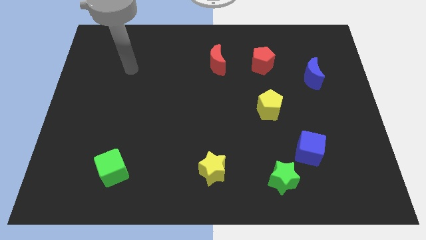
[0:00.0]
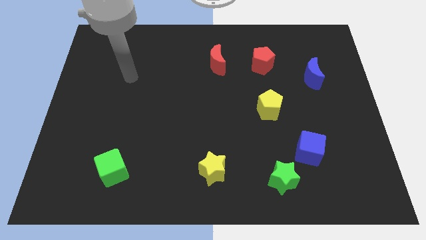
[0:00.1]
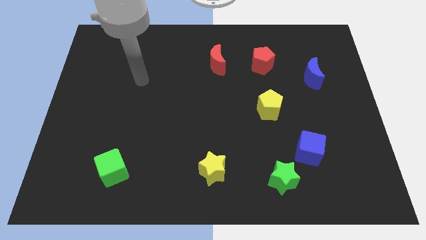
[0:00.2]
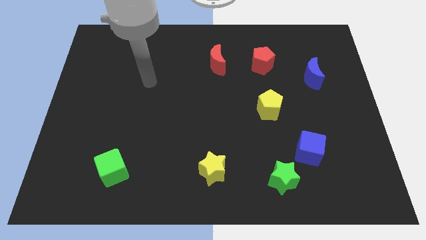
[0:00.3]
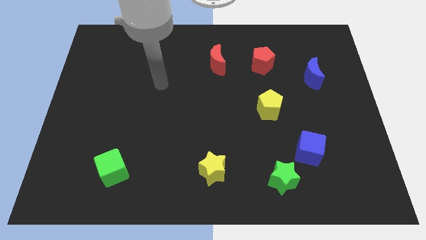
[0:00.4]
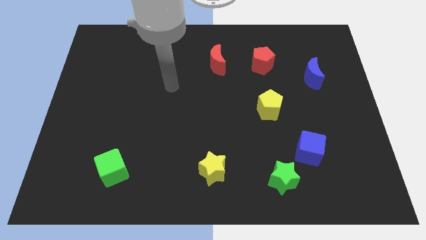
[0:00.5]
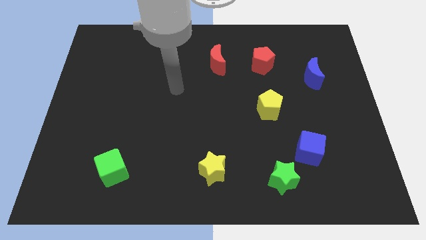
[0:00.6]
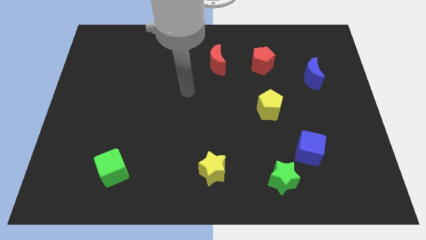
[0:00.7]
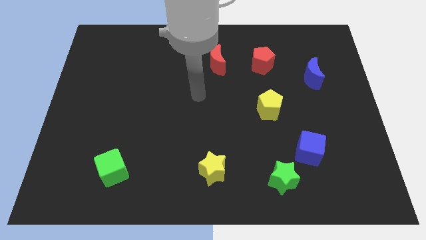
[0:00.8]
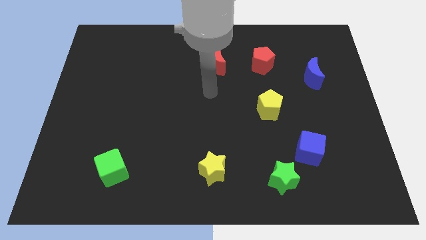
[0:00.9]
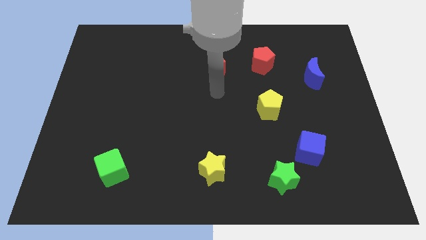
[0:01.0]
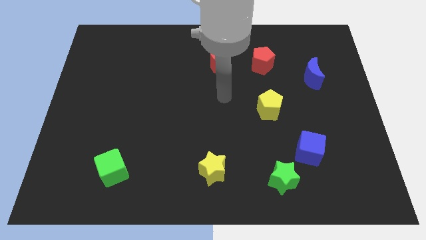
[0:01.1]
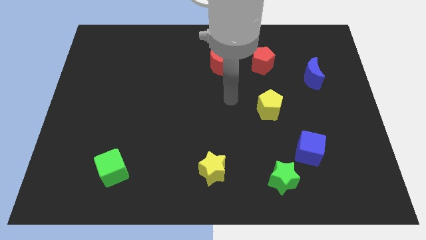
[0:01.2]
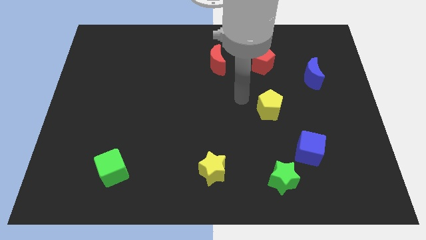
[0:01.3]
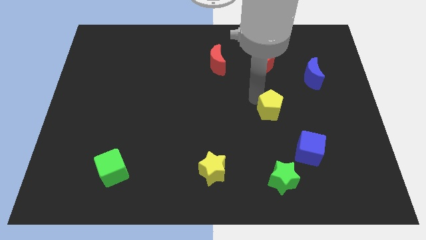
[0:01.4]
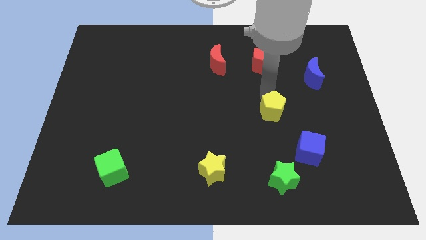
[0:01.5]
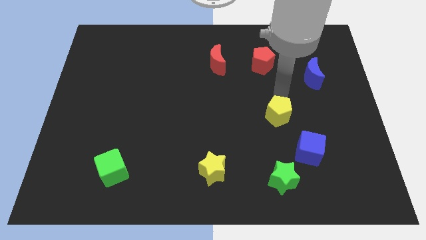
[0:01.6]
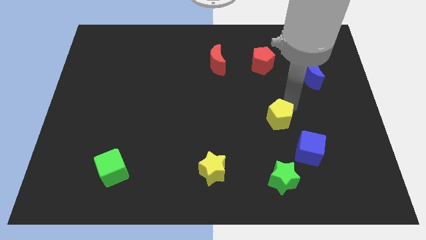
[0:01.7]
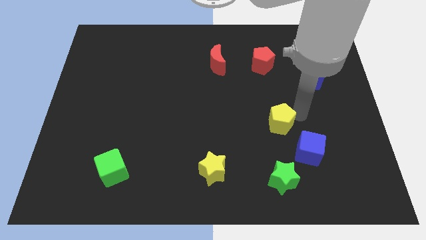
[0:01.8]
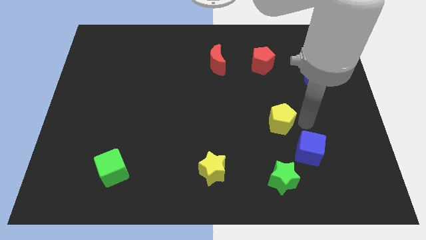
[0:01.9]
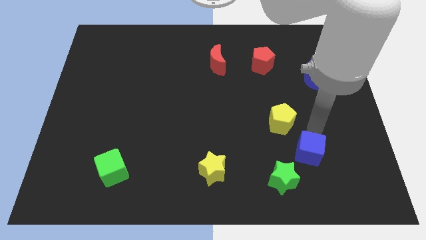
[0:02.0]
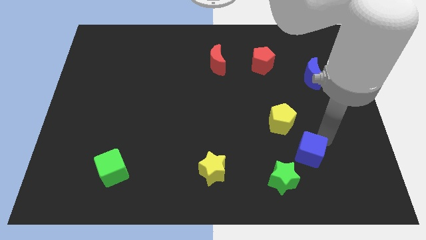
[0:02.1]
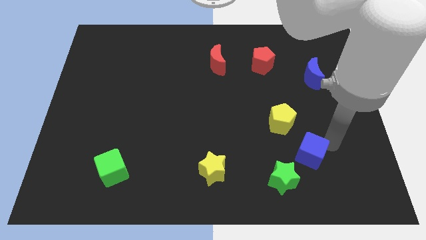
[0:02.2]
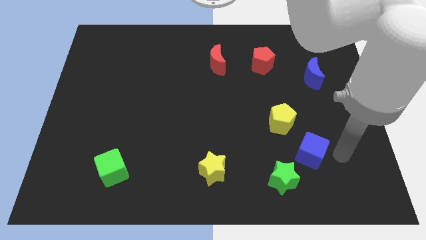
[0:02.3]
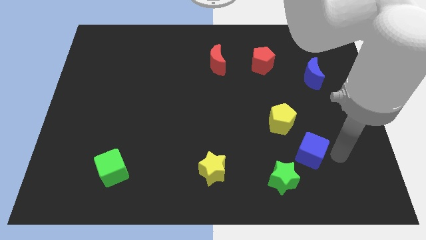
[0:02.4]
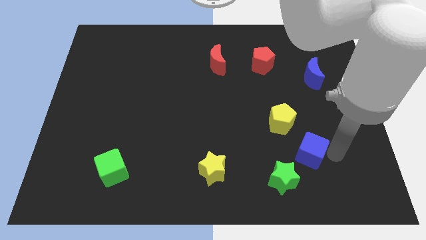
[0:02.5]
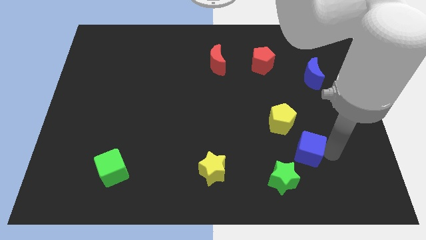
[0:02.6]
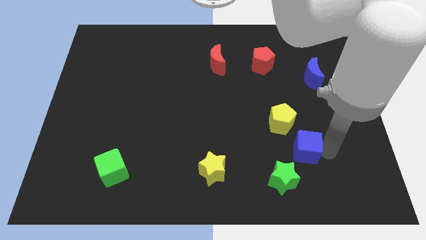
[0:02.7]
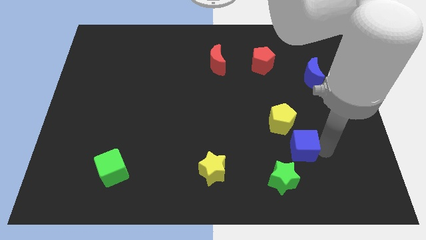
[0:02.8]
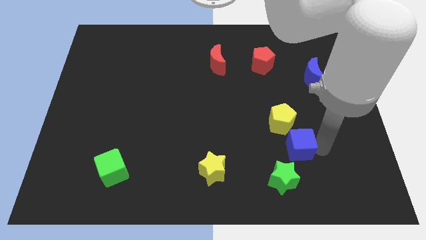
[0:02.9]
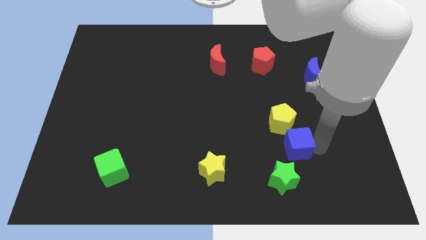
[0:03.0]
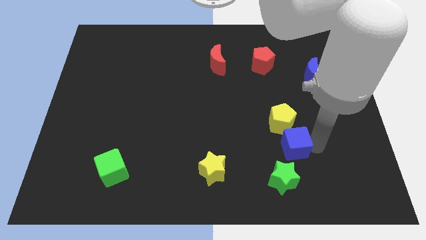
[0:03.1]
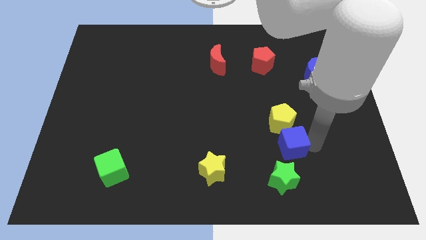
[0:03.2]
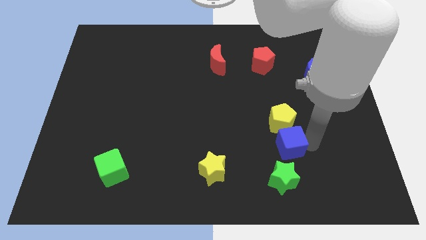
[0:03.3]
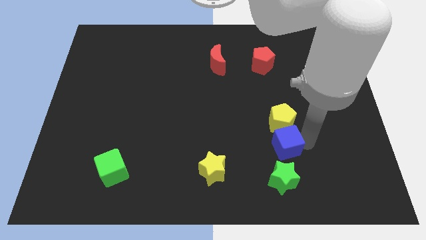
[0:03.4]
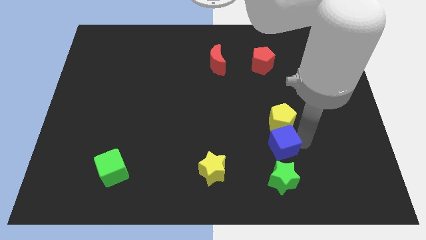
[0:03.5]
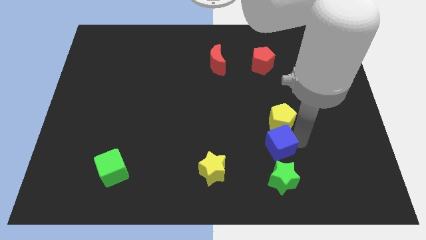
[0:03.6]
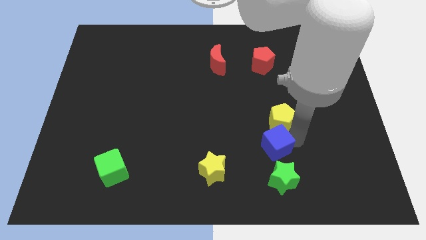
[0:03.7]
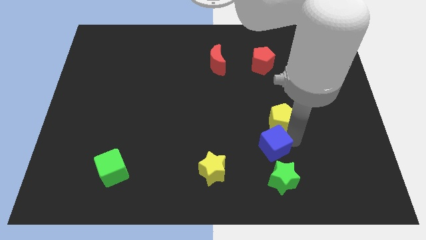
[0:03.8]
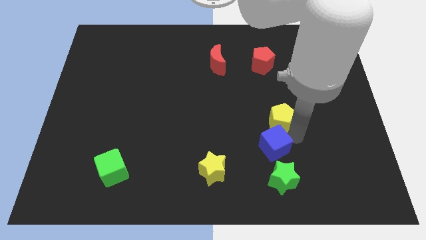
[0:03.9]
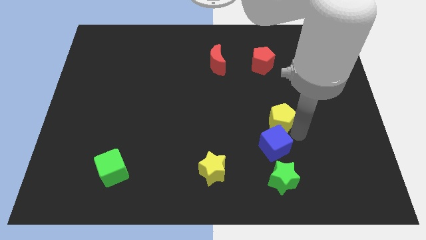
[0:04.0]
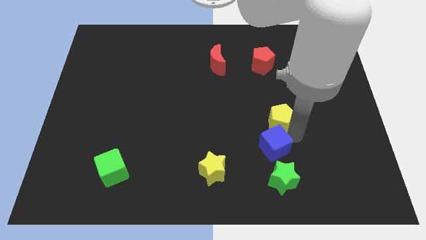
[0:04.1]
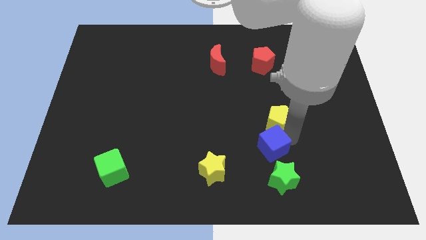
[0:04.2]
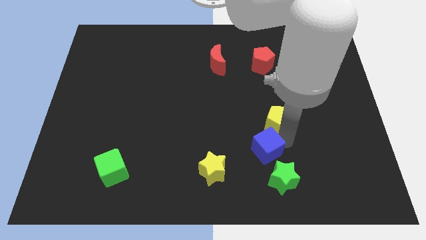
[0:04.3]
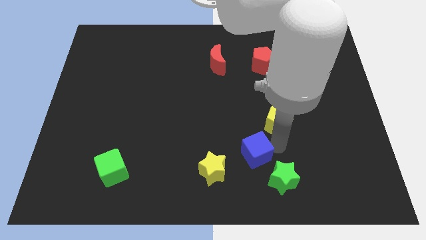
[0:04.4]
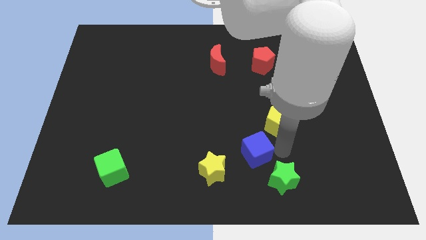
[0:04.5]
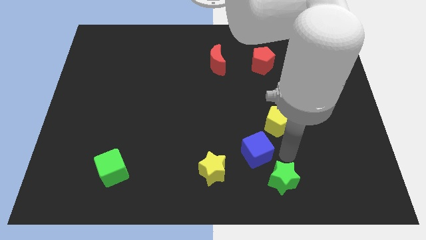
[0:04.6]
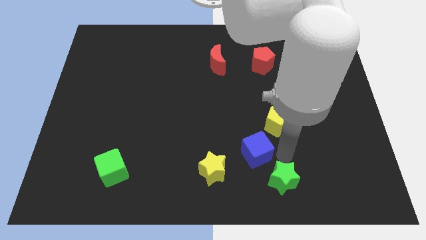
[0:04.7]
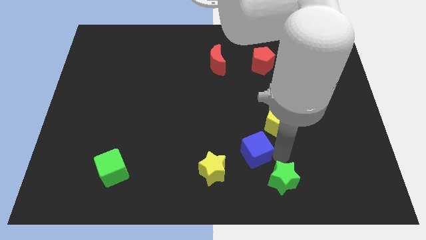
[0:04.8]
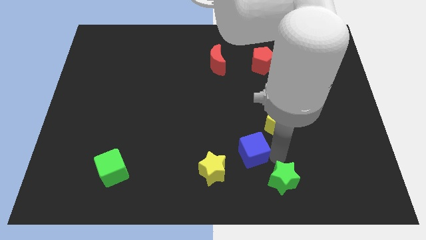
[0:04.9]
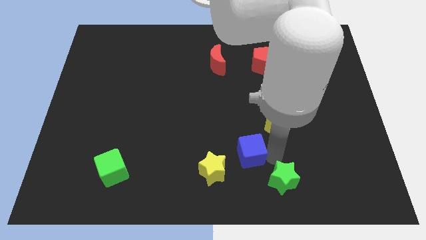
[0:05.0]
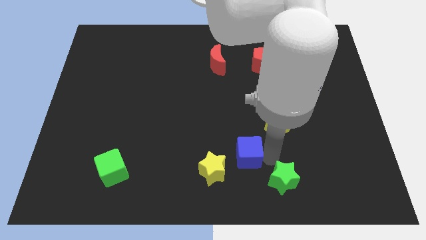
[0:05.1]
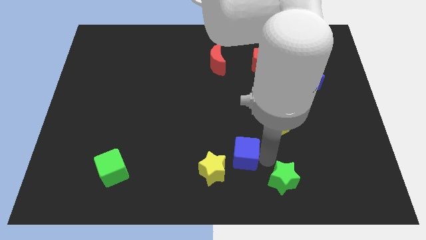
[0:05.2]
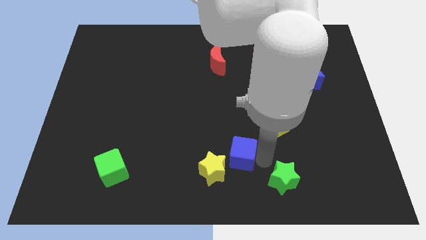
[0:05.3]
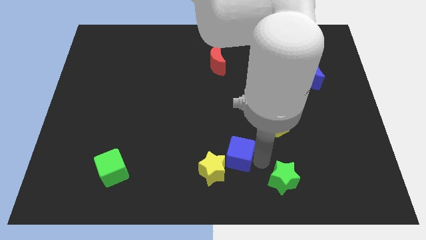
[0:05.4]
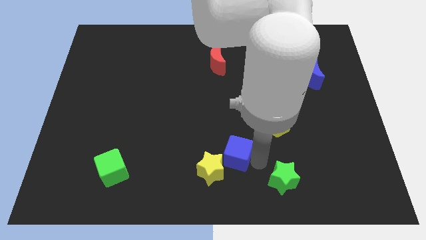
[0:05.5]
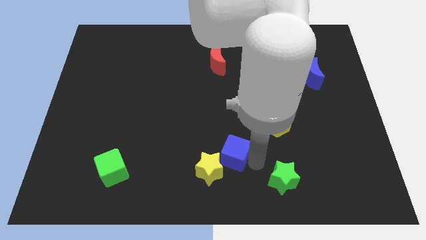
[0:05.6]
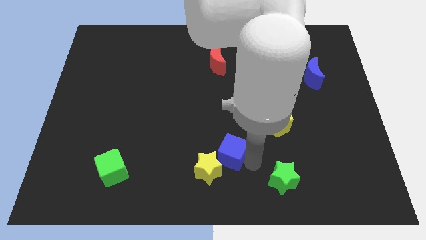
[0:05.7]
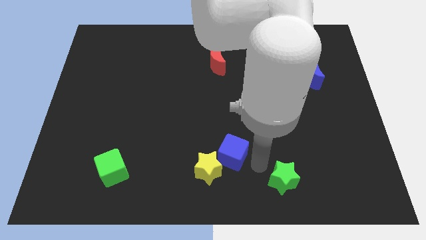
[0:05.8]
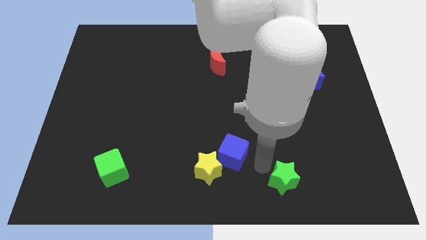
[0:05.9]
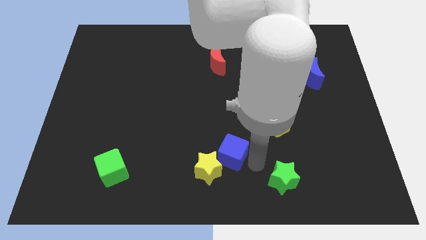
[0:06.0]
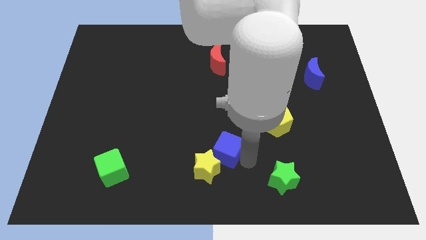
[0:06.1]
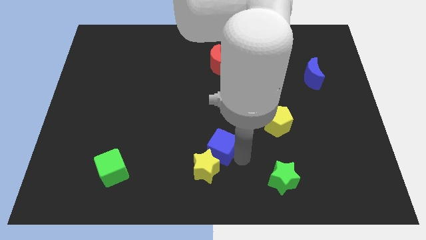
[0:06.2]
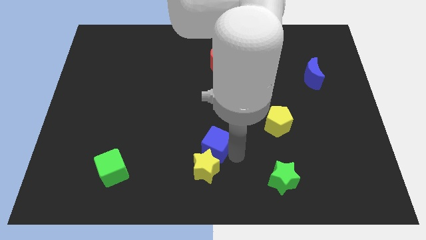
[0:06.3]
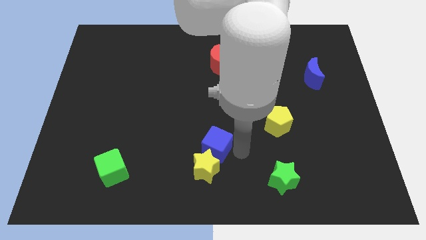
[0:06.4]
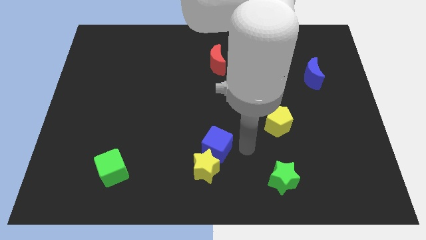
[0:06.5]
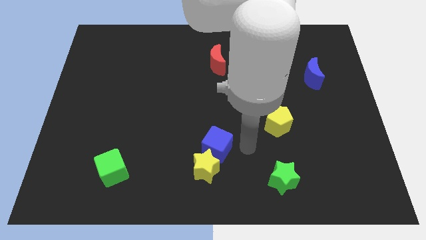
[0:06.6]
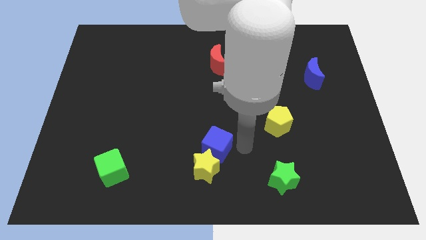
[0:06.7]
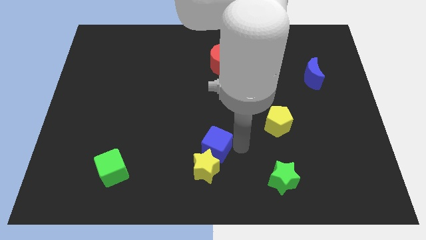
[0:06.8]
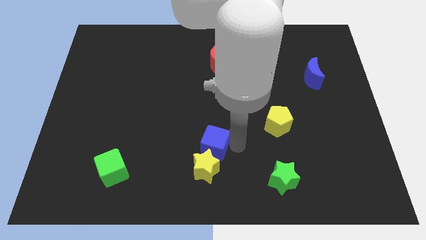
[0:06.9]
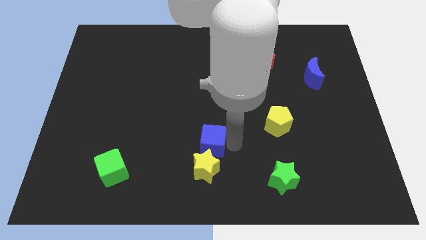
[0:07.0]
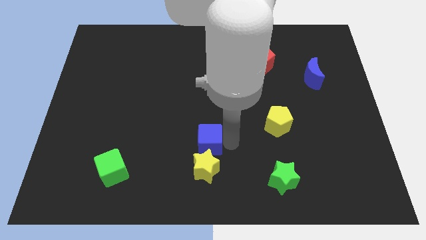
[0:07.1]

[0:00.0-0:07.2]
put the blue cube to the top left of the yellow star
